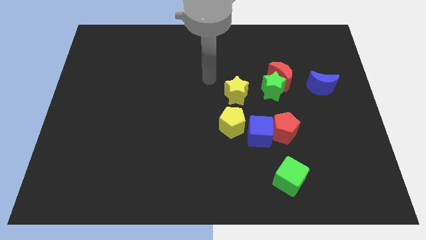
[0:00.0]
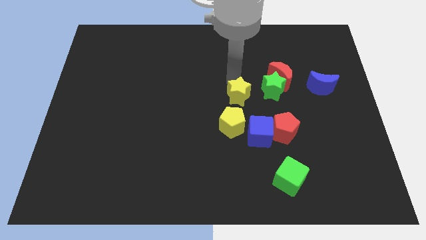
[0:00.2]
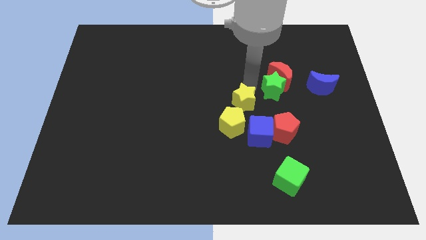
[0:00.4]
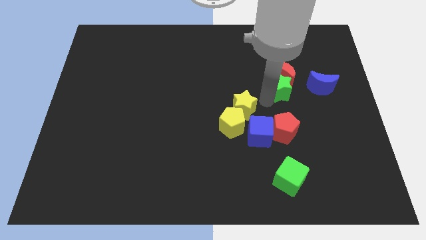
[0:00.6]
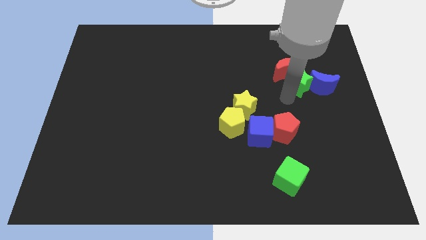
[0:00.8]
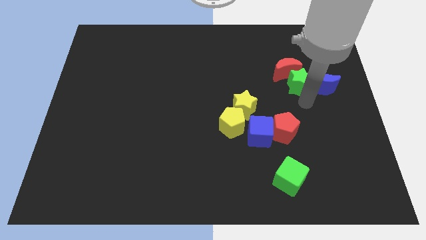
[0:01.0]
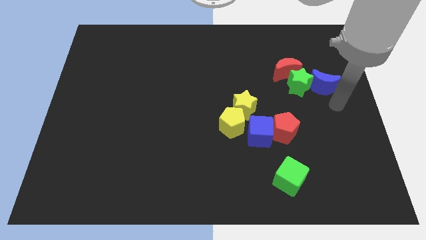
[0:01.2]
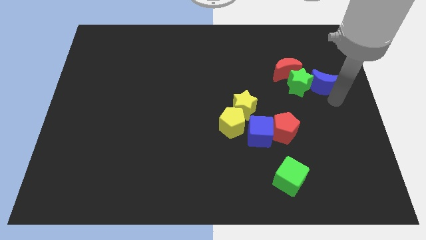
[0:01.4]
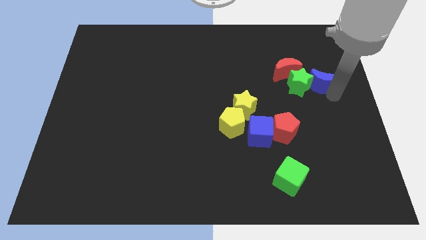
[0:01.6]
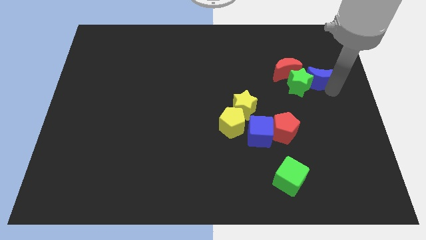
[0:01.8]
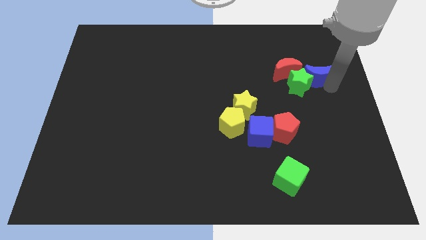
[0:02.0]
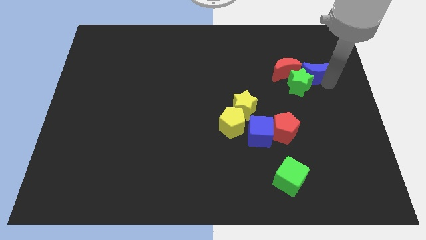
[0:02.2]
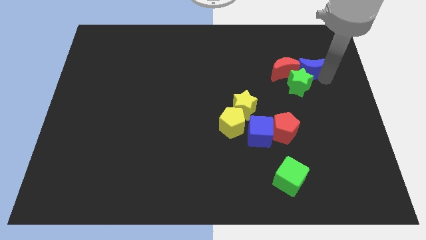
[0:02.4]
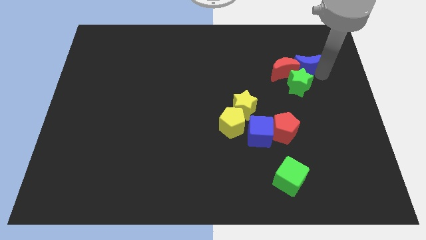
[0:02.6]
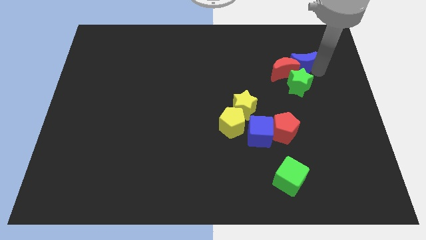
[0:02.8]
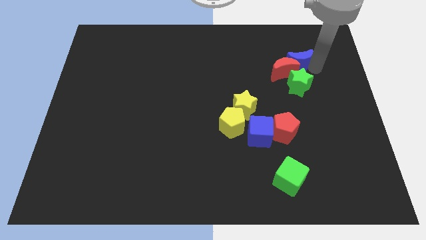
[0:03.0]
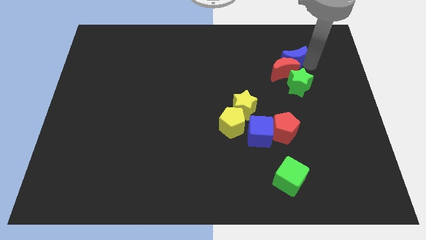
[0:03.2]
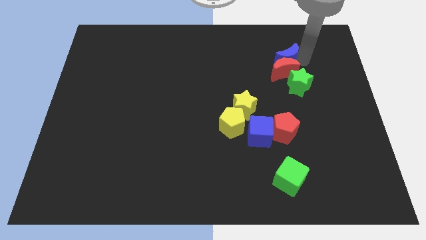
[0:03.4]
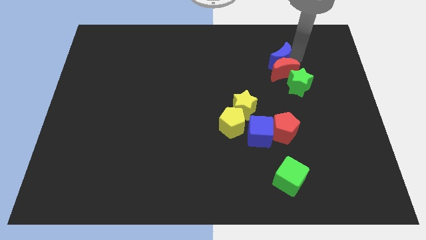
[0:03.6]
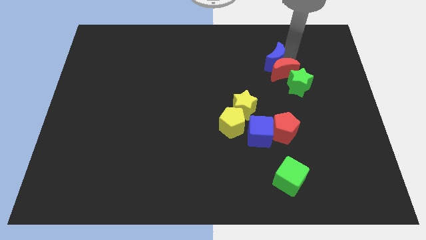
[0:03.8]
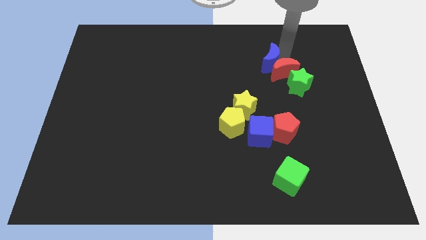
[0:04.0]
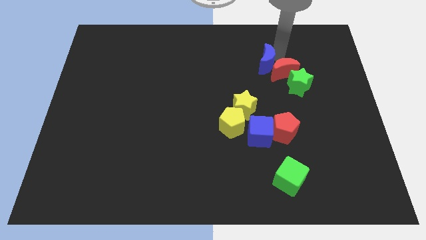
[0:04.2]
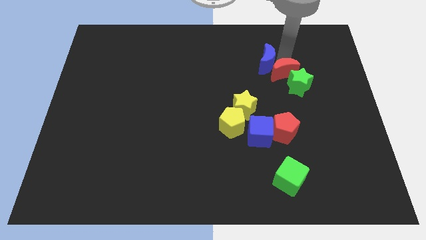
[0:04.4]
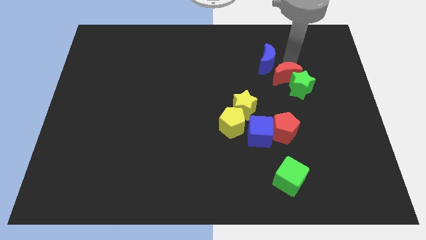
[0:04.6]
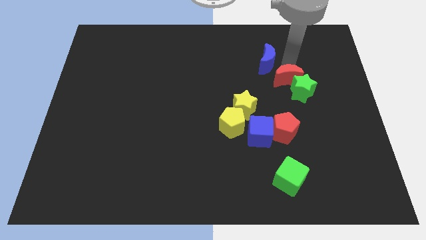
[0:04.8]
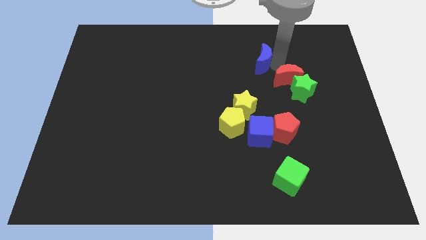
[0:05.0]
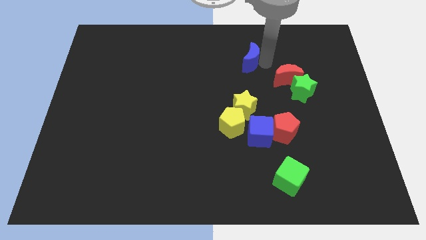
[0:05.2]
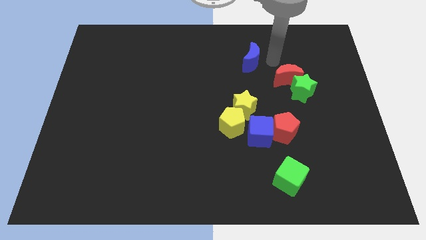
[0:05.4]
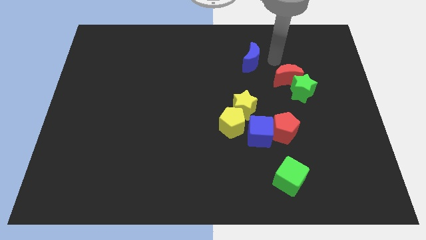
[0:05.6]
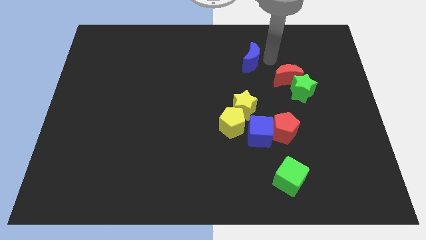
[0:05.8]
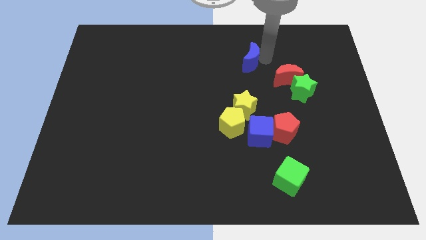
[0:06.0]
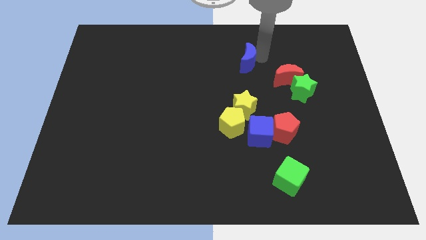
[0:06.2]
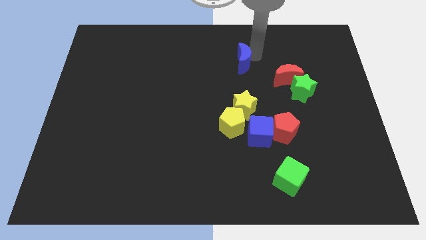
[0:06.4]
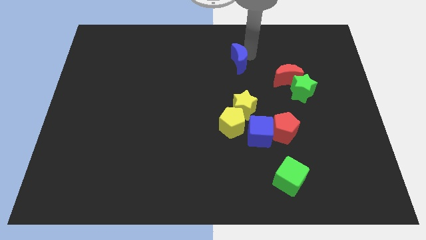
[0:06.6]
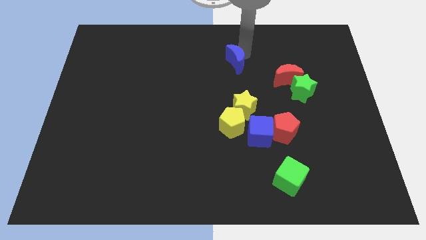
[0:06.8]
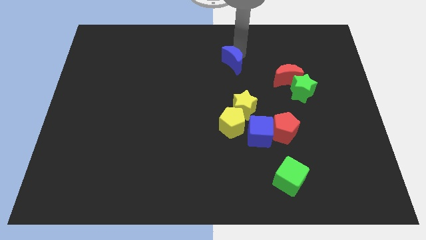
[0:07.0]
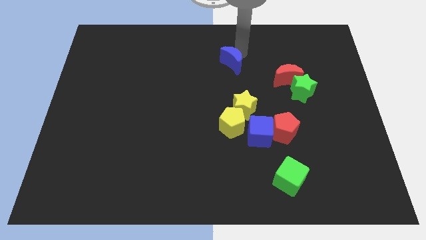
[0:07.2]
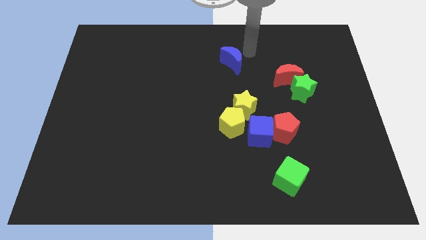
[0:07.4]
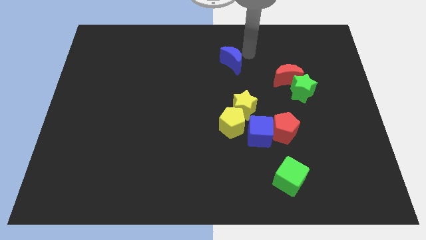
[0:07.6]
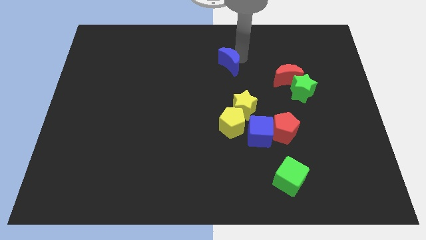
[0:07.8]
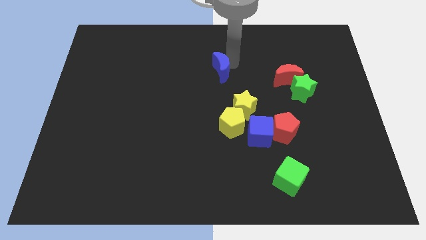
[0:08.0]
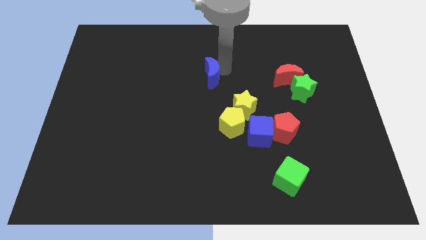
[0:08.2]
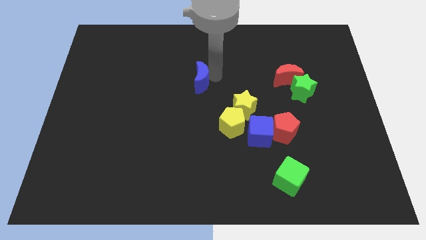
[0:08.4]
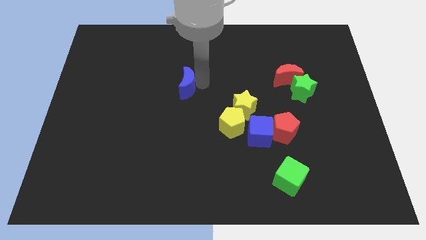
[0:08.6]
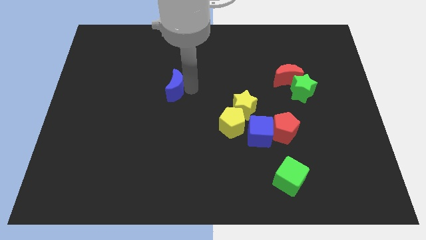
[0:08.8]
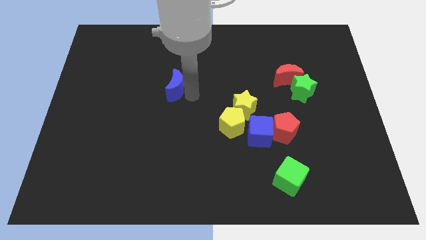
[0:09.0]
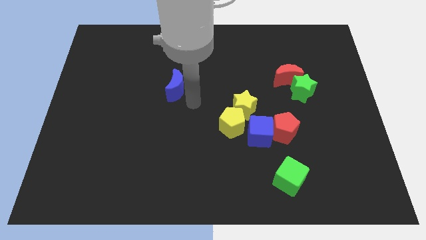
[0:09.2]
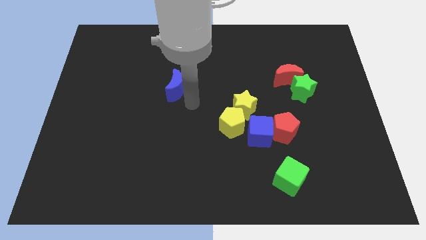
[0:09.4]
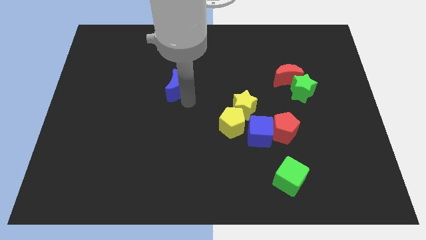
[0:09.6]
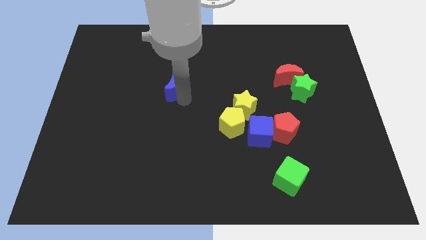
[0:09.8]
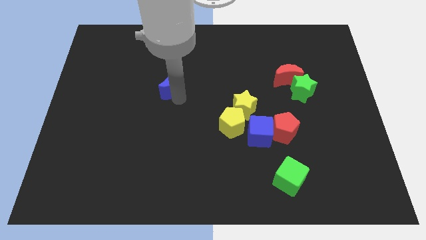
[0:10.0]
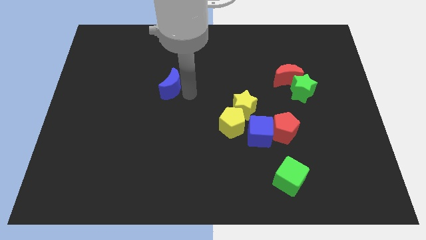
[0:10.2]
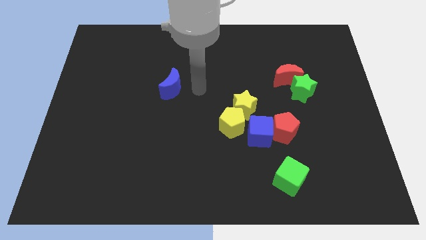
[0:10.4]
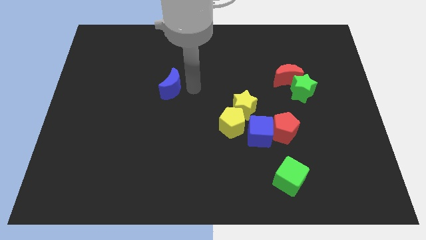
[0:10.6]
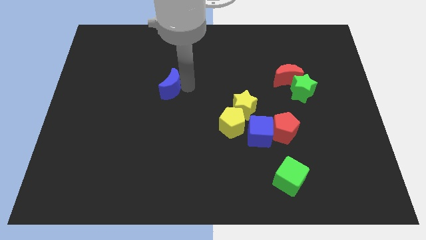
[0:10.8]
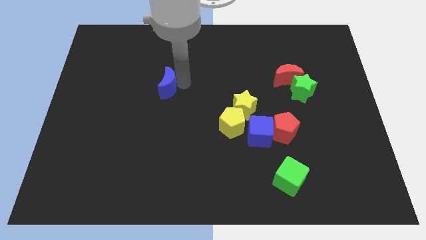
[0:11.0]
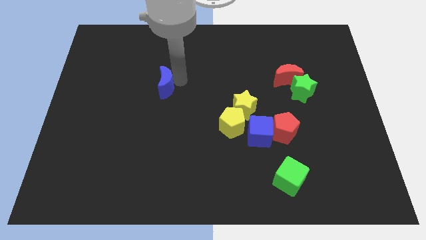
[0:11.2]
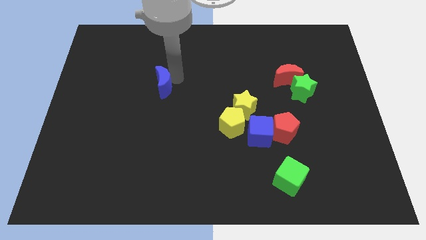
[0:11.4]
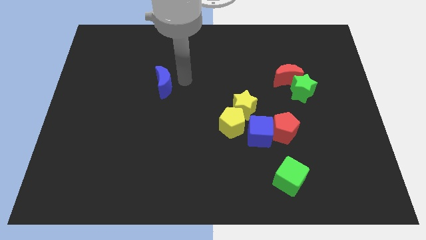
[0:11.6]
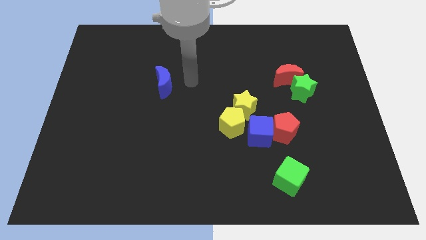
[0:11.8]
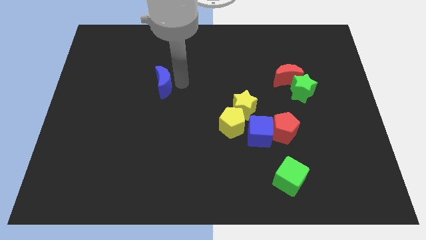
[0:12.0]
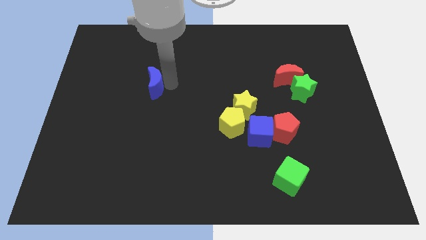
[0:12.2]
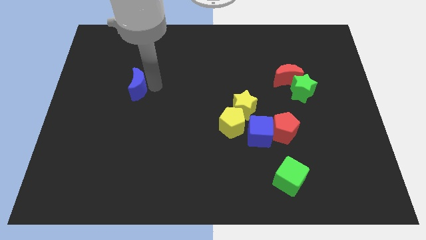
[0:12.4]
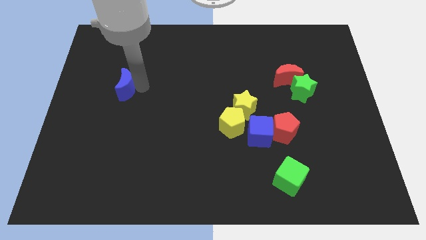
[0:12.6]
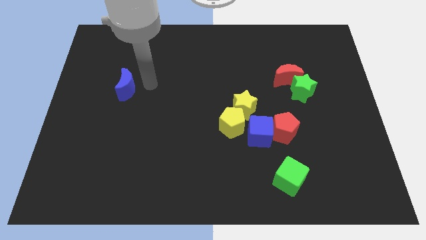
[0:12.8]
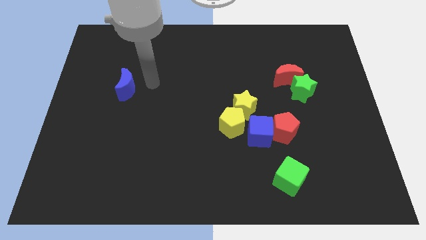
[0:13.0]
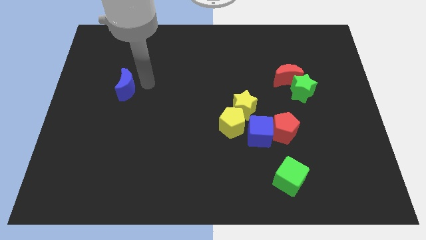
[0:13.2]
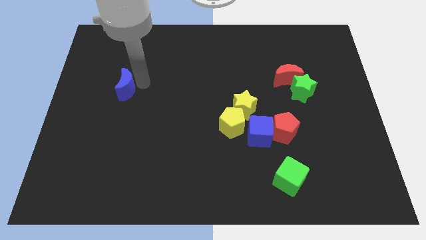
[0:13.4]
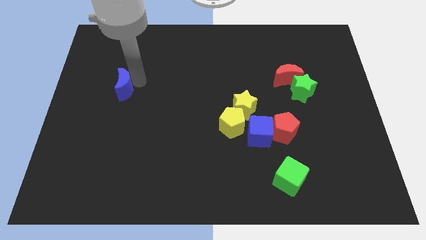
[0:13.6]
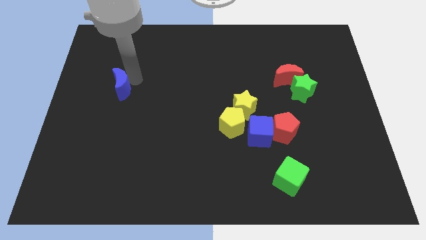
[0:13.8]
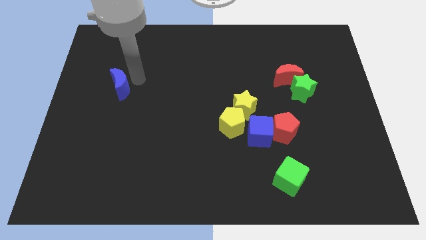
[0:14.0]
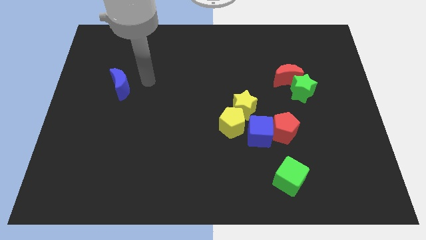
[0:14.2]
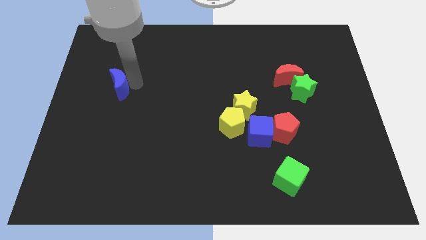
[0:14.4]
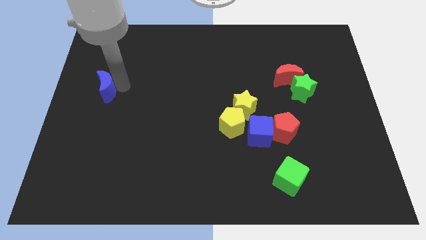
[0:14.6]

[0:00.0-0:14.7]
push the blue moon to the left side

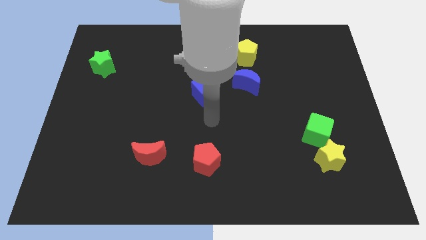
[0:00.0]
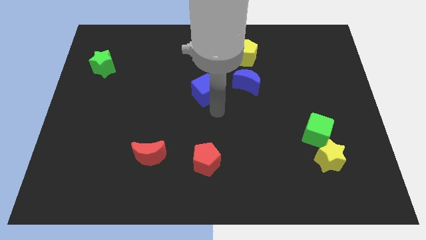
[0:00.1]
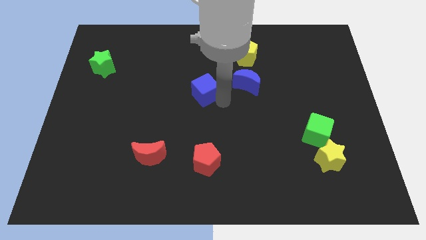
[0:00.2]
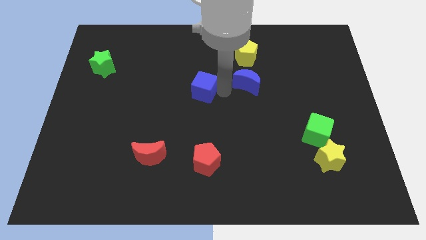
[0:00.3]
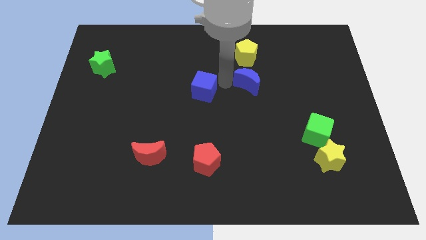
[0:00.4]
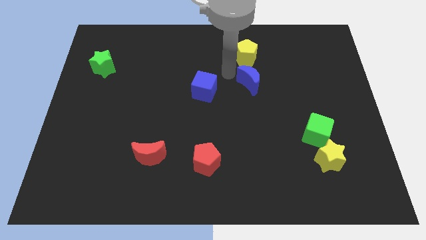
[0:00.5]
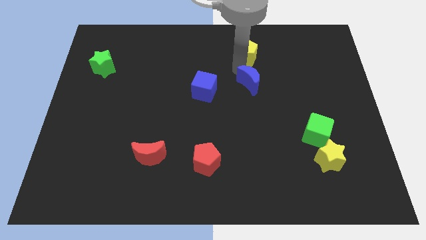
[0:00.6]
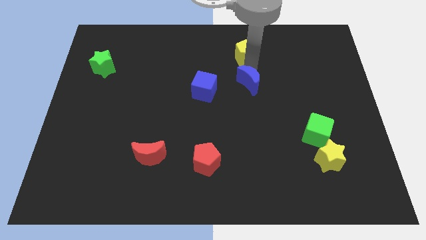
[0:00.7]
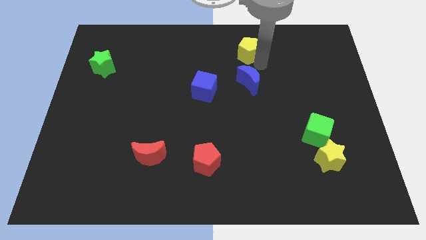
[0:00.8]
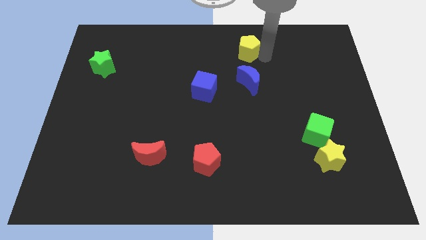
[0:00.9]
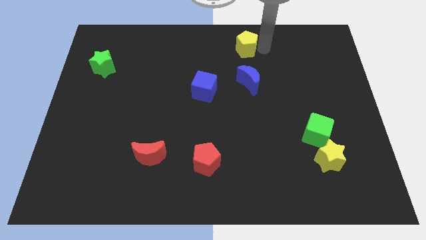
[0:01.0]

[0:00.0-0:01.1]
move the yellow pentagon to the top side
